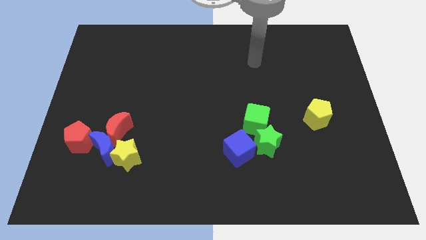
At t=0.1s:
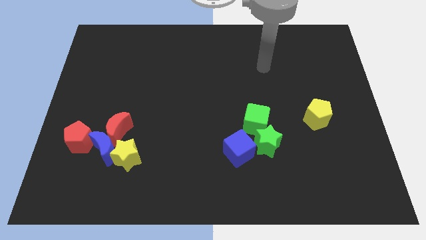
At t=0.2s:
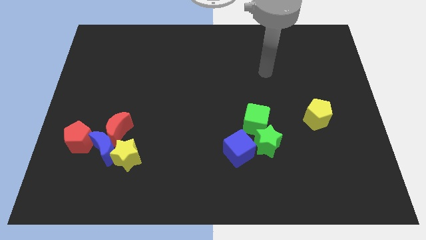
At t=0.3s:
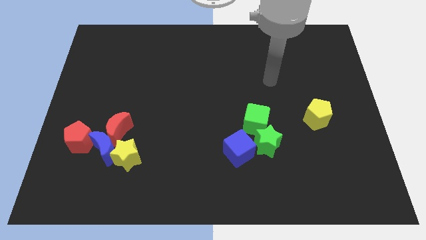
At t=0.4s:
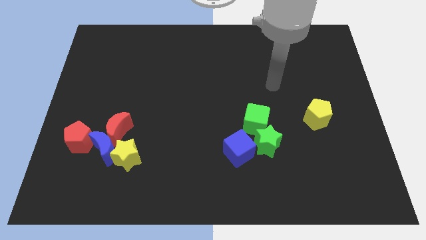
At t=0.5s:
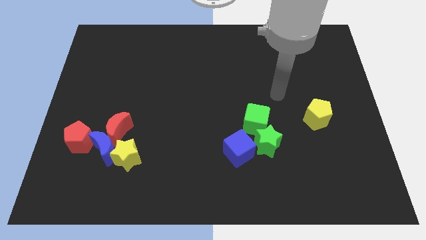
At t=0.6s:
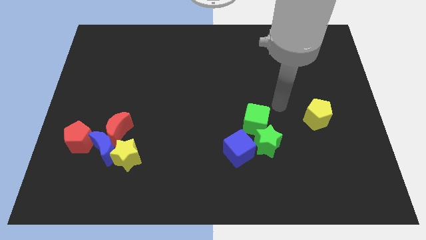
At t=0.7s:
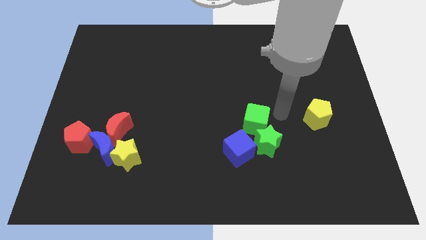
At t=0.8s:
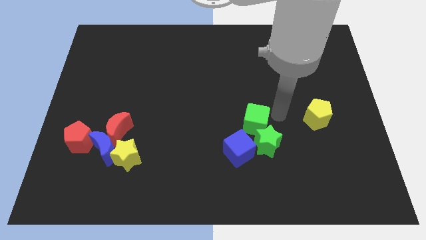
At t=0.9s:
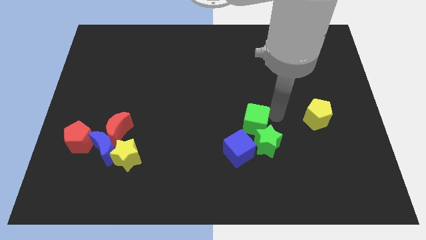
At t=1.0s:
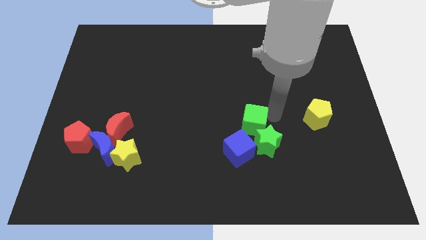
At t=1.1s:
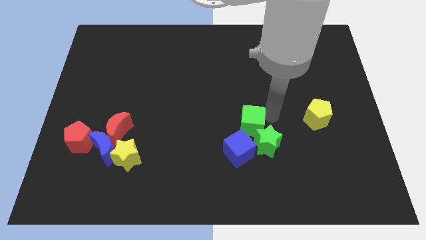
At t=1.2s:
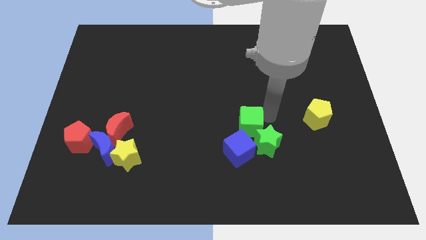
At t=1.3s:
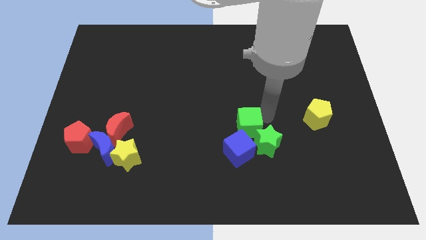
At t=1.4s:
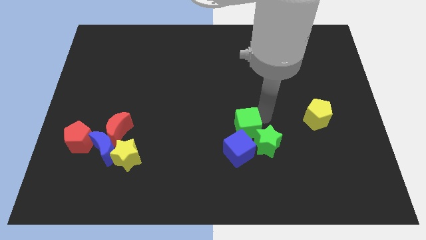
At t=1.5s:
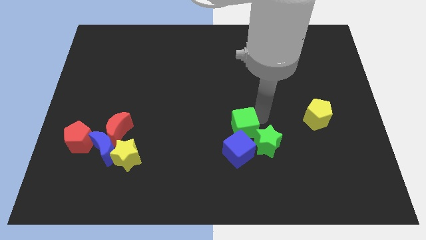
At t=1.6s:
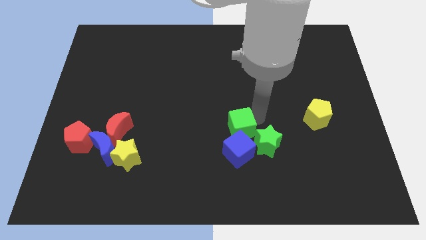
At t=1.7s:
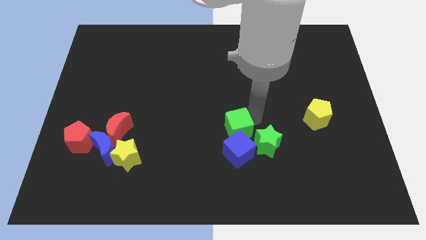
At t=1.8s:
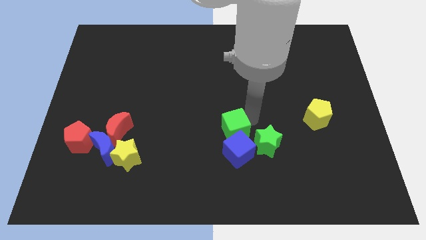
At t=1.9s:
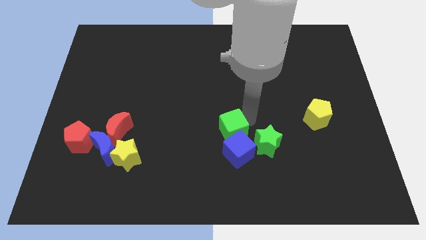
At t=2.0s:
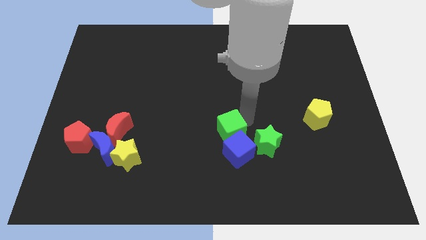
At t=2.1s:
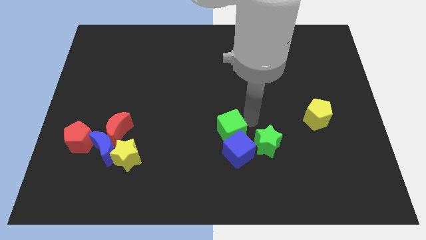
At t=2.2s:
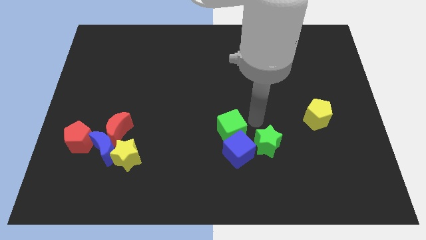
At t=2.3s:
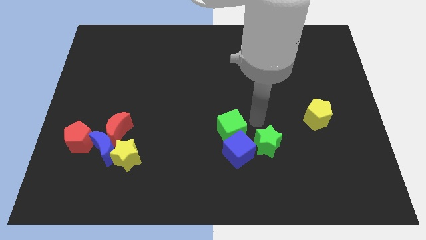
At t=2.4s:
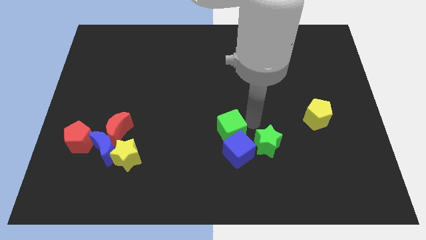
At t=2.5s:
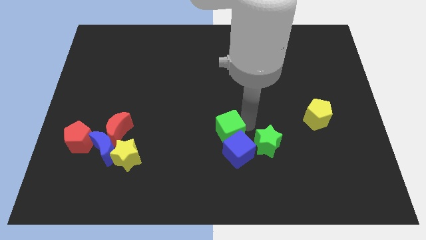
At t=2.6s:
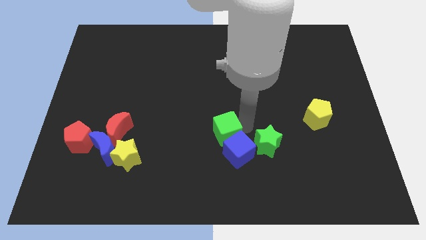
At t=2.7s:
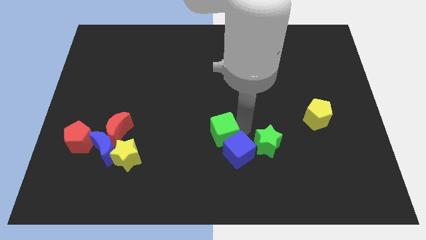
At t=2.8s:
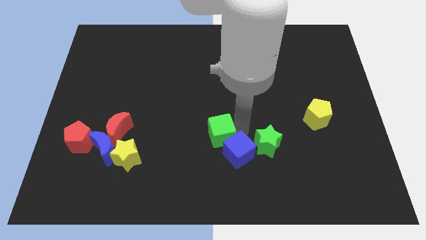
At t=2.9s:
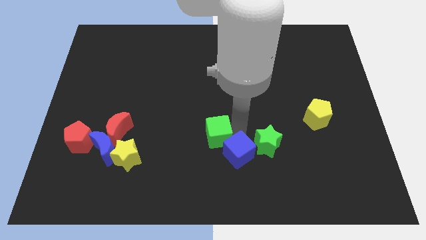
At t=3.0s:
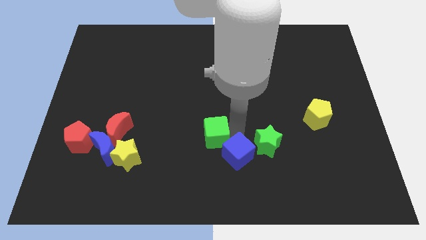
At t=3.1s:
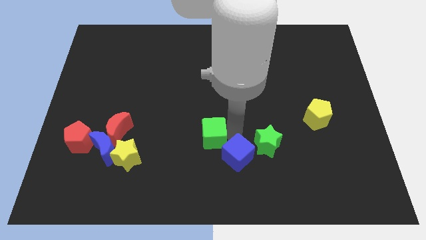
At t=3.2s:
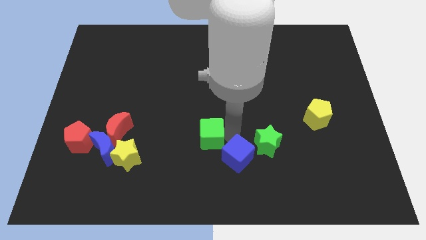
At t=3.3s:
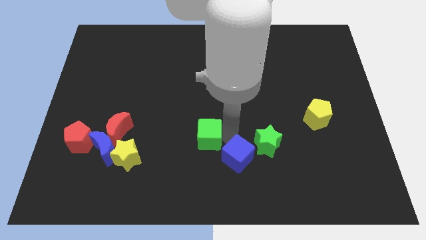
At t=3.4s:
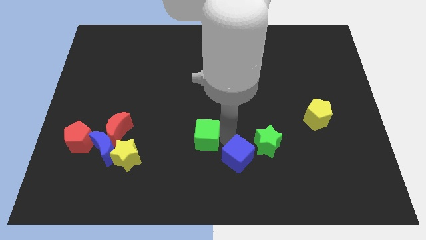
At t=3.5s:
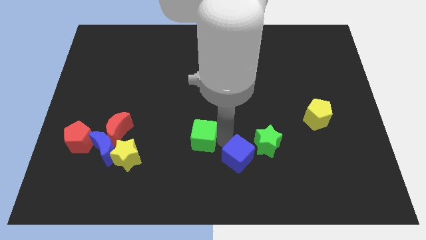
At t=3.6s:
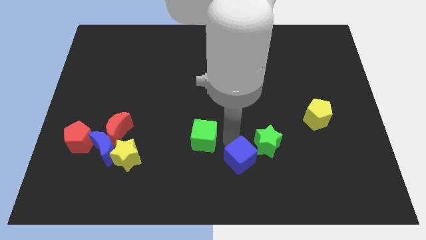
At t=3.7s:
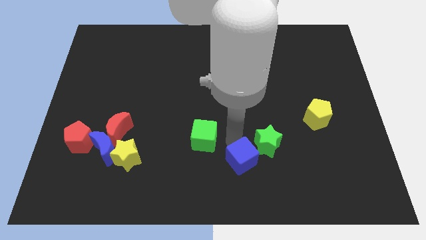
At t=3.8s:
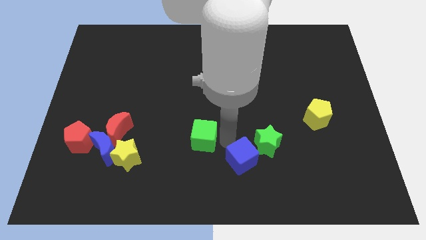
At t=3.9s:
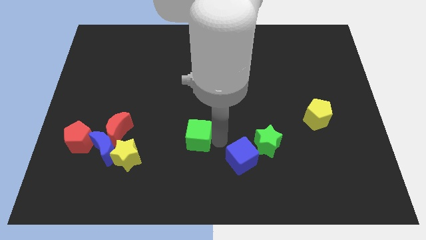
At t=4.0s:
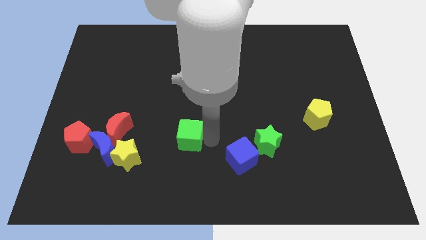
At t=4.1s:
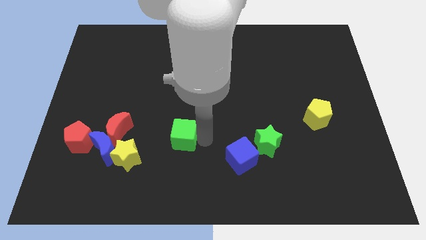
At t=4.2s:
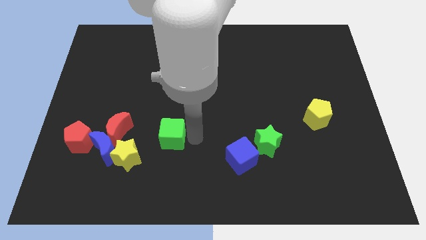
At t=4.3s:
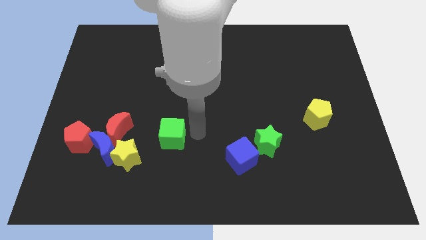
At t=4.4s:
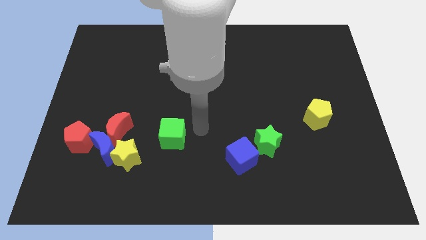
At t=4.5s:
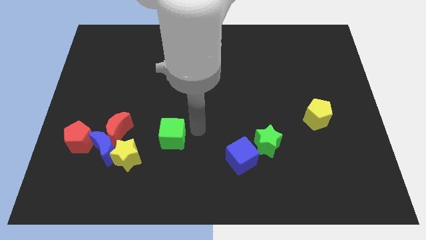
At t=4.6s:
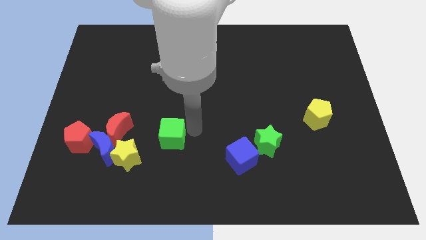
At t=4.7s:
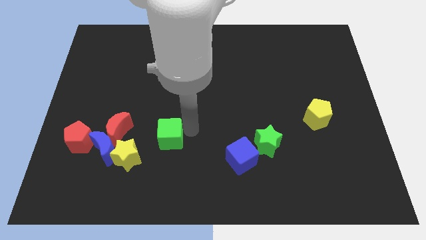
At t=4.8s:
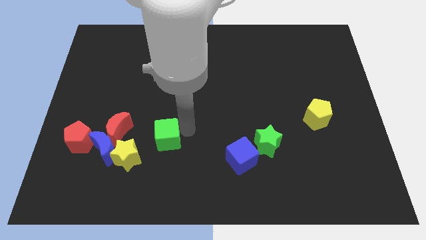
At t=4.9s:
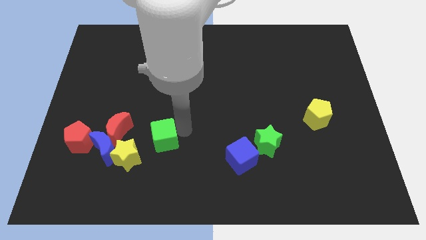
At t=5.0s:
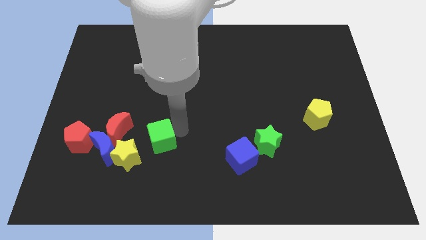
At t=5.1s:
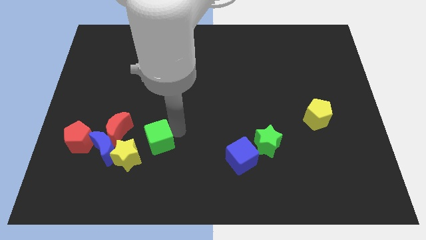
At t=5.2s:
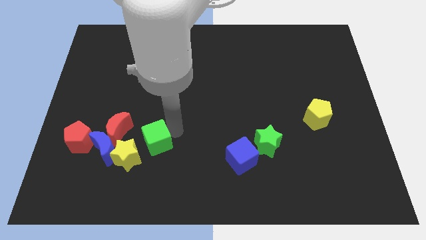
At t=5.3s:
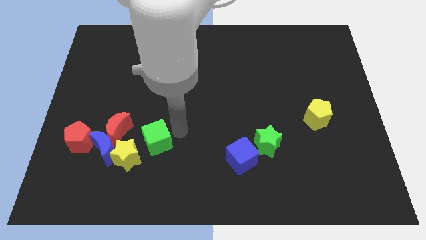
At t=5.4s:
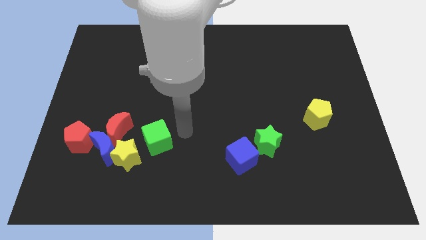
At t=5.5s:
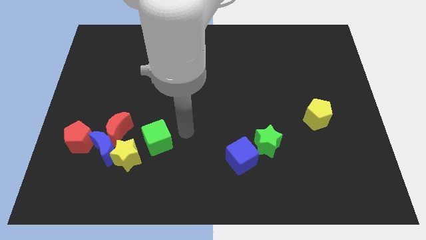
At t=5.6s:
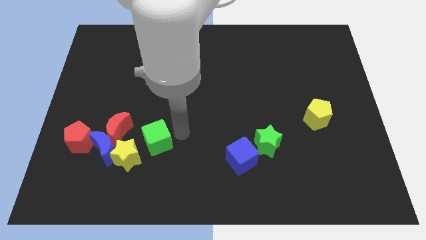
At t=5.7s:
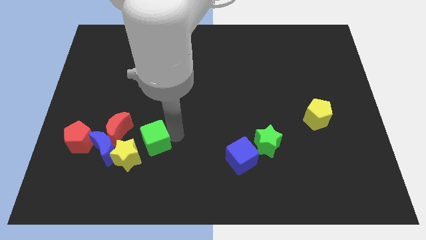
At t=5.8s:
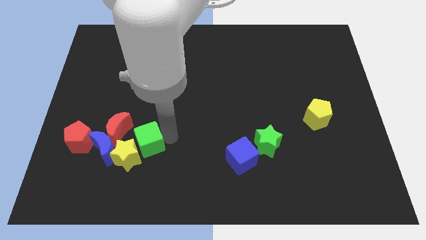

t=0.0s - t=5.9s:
put the green cube close to the yellow star

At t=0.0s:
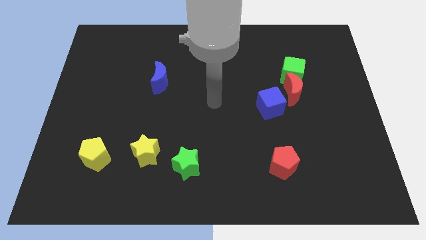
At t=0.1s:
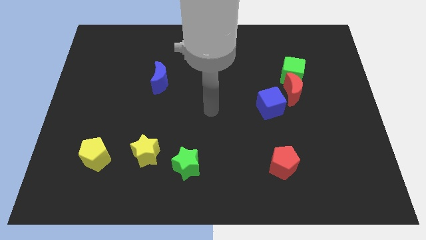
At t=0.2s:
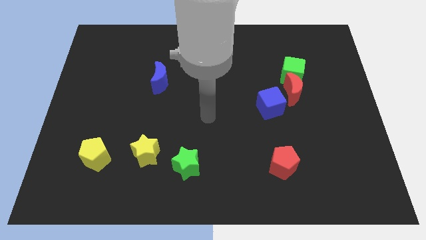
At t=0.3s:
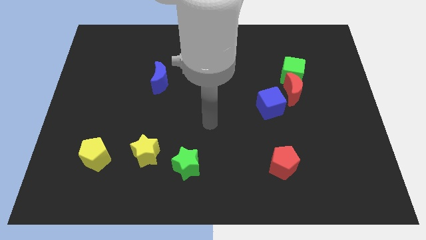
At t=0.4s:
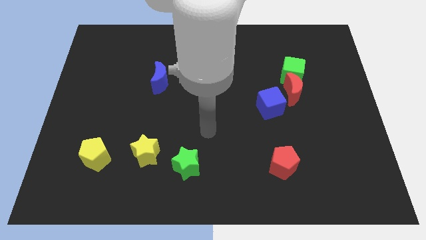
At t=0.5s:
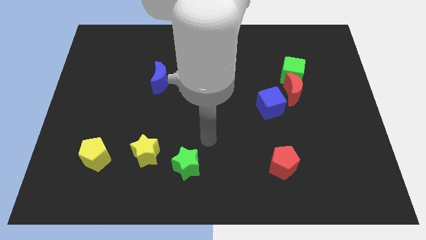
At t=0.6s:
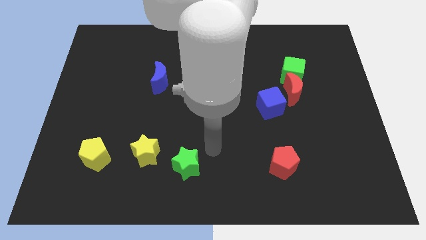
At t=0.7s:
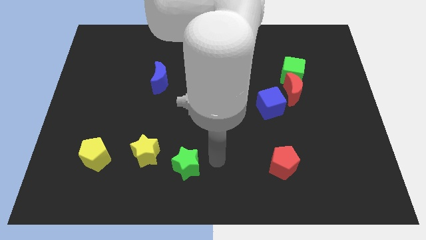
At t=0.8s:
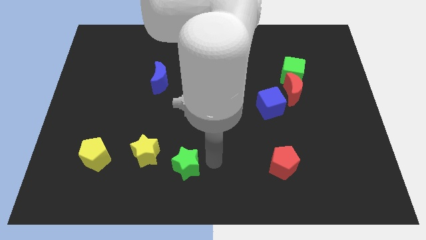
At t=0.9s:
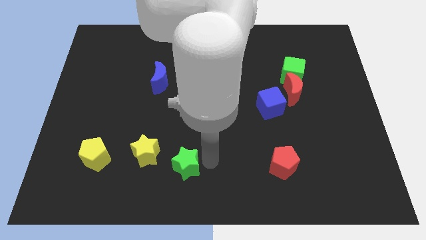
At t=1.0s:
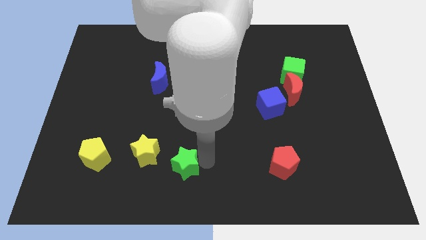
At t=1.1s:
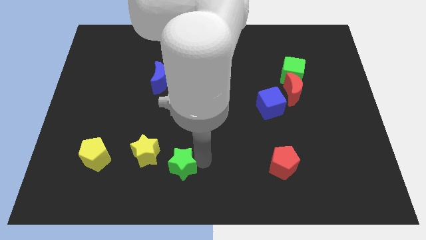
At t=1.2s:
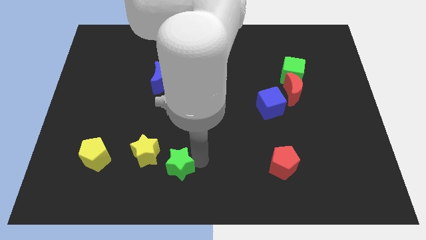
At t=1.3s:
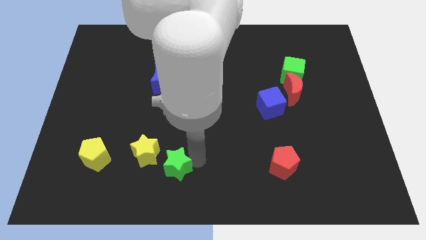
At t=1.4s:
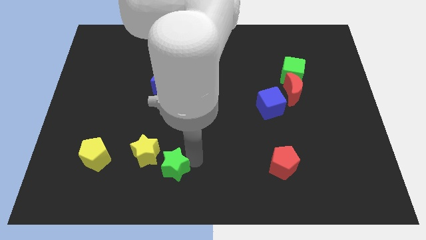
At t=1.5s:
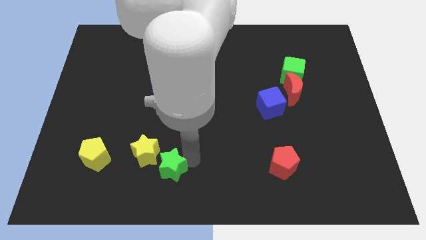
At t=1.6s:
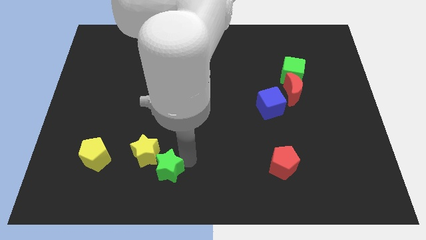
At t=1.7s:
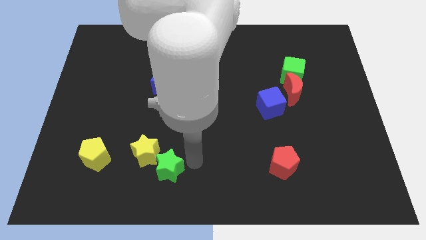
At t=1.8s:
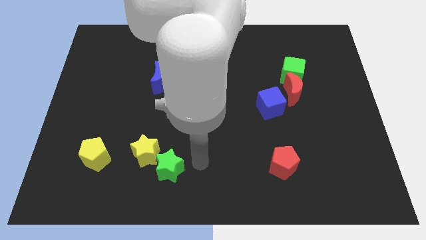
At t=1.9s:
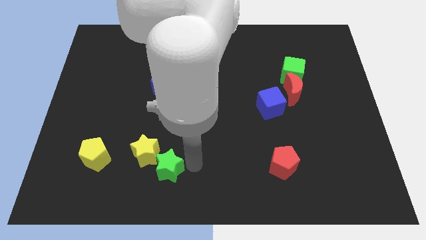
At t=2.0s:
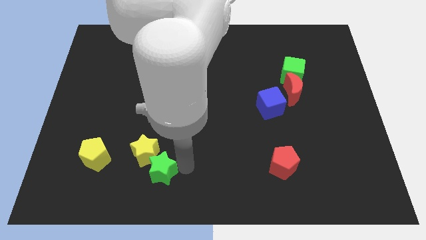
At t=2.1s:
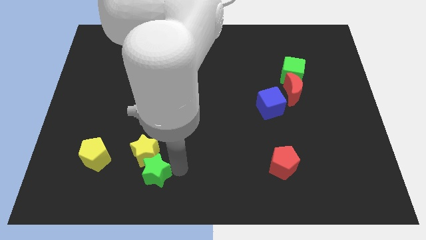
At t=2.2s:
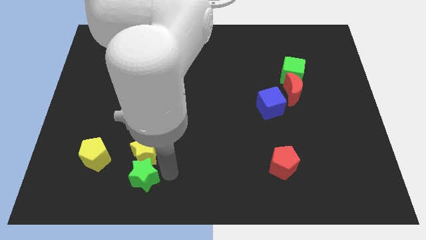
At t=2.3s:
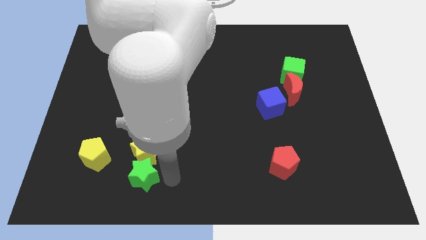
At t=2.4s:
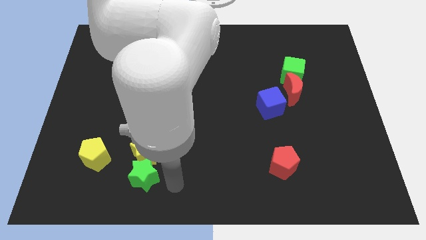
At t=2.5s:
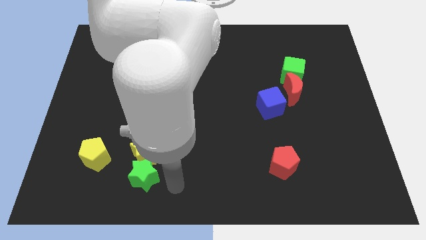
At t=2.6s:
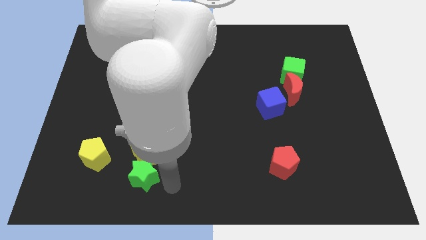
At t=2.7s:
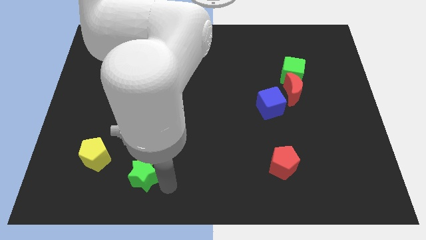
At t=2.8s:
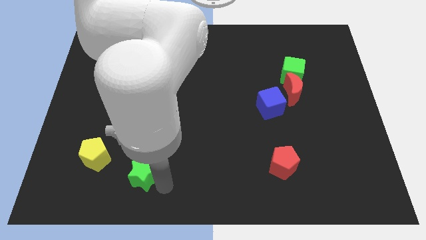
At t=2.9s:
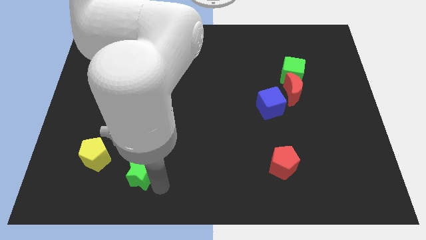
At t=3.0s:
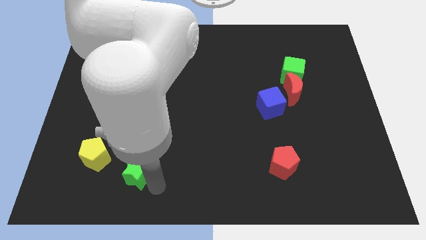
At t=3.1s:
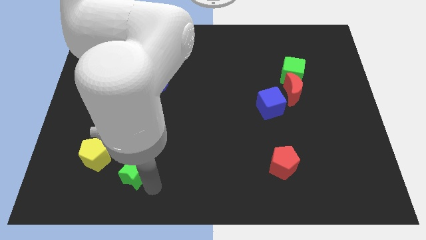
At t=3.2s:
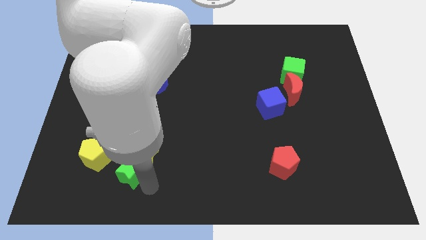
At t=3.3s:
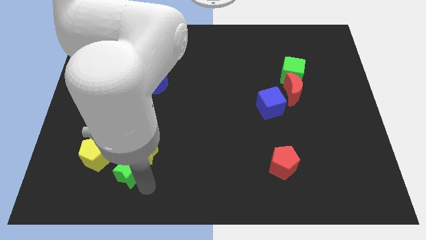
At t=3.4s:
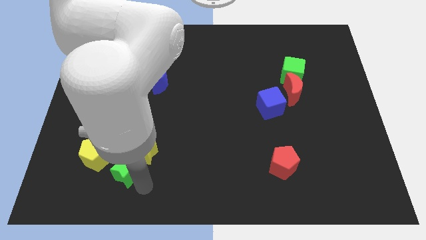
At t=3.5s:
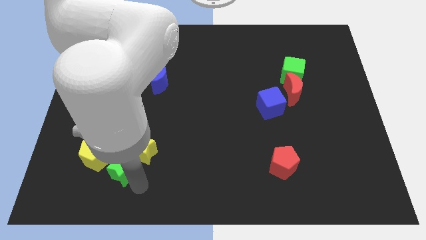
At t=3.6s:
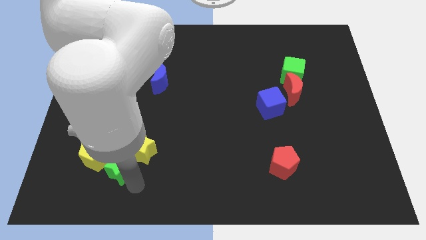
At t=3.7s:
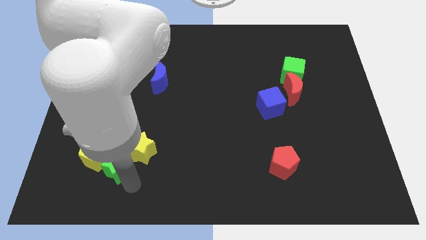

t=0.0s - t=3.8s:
push the green star next to the yellow pentagon
